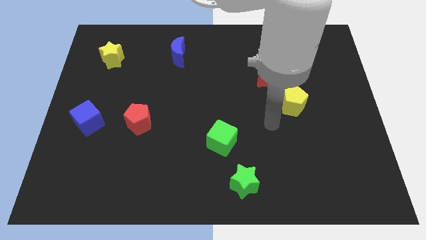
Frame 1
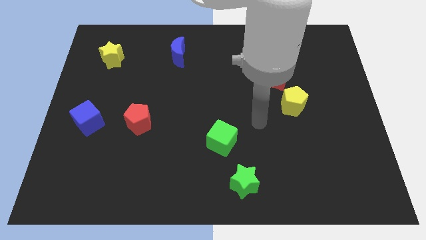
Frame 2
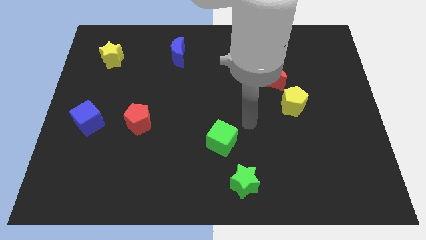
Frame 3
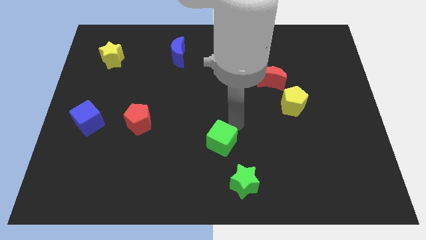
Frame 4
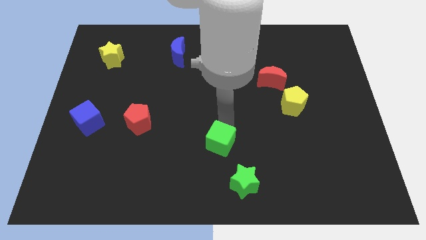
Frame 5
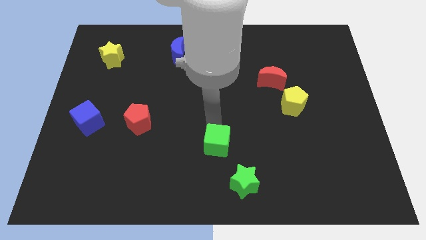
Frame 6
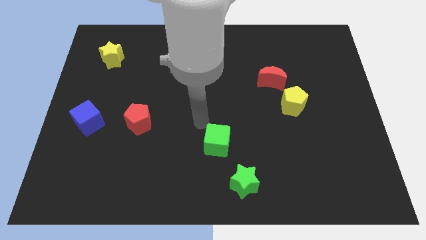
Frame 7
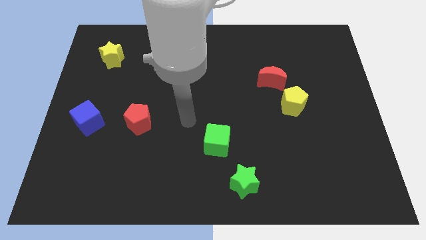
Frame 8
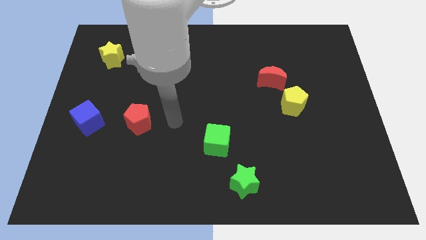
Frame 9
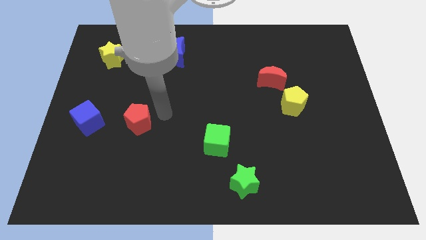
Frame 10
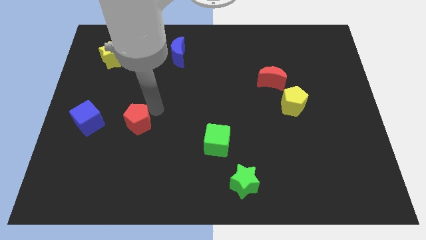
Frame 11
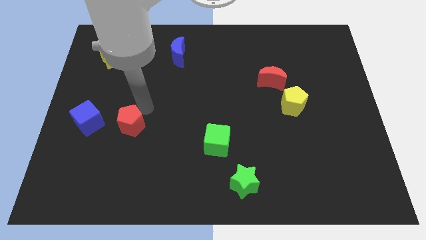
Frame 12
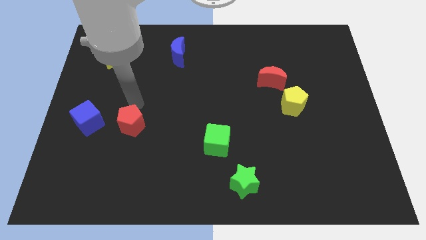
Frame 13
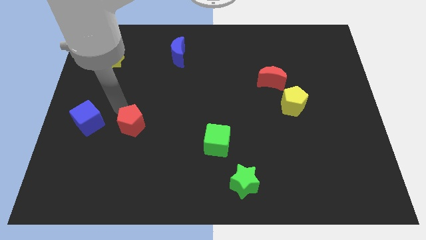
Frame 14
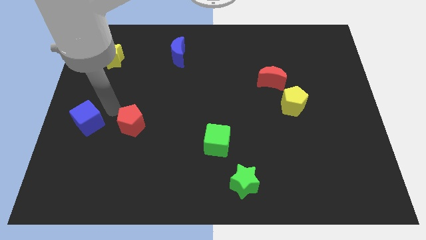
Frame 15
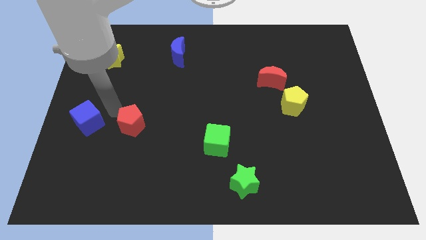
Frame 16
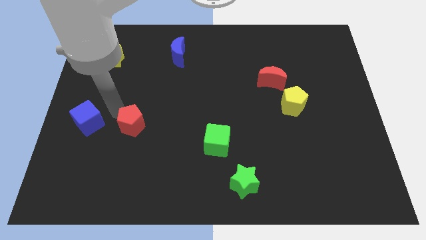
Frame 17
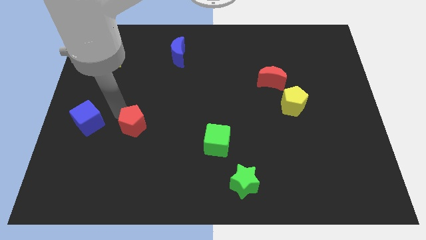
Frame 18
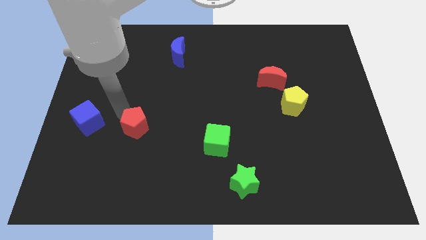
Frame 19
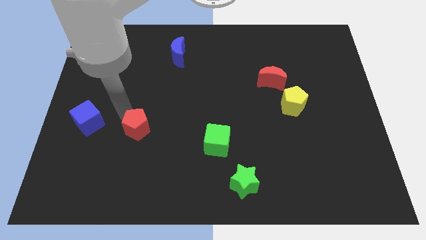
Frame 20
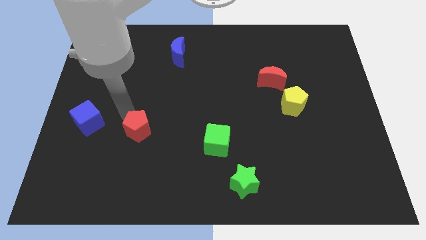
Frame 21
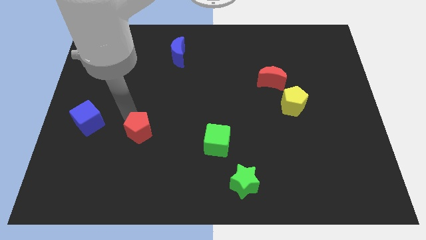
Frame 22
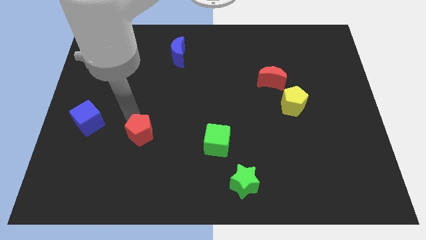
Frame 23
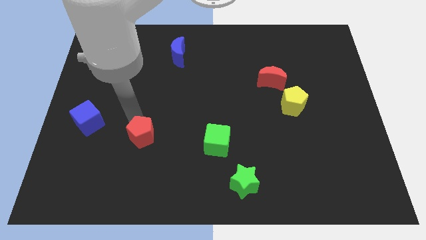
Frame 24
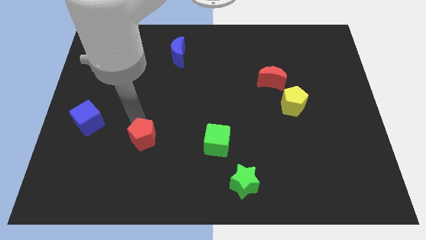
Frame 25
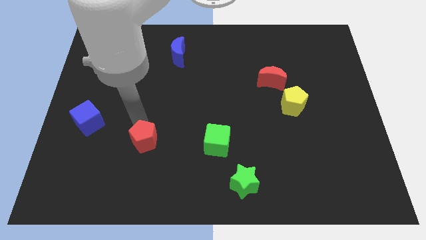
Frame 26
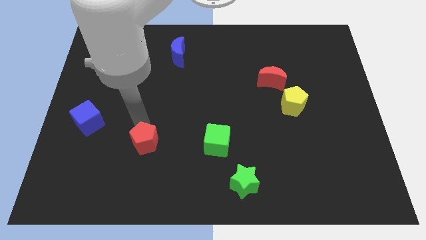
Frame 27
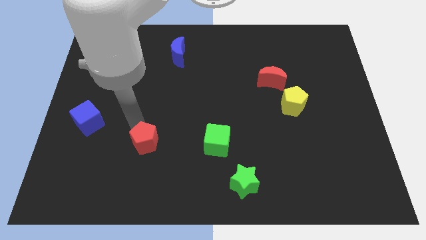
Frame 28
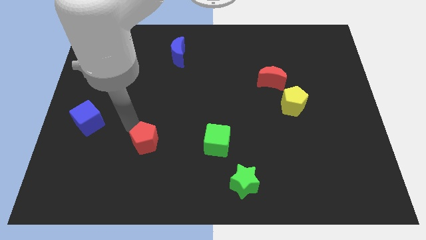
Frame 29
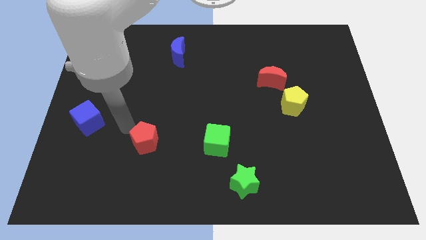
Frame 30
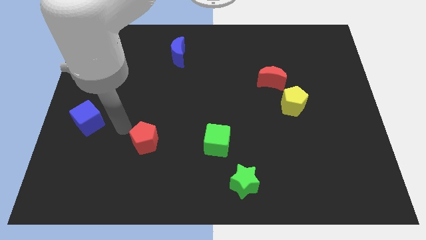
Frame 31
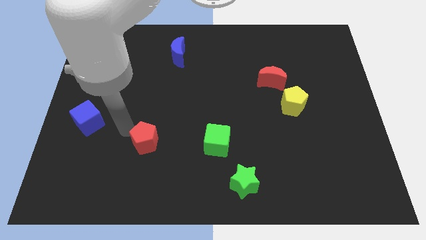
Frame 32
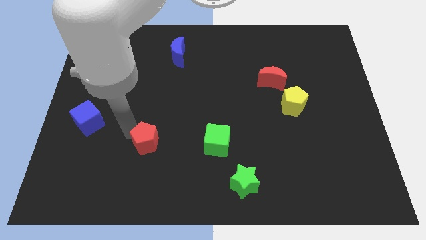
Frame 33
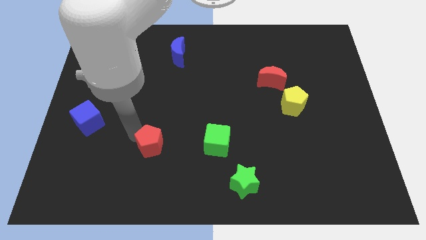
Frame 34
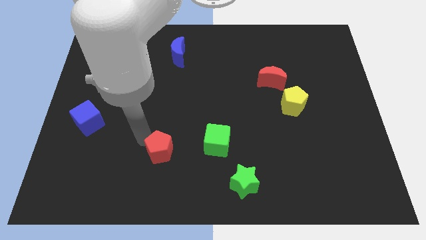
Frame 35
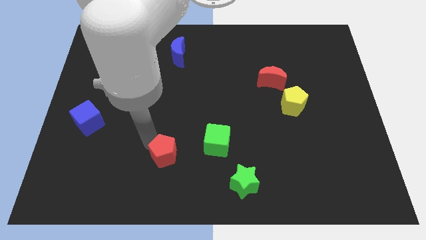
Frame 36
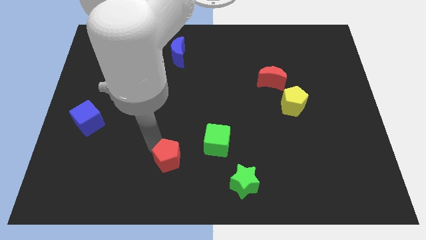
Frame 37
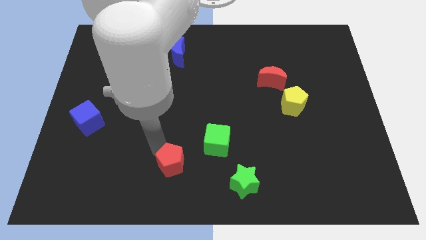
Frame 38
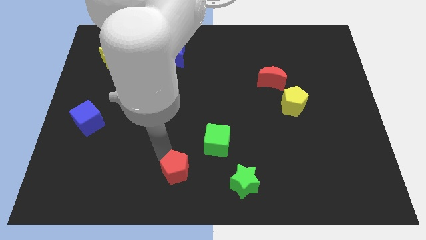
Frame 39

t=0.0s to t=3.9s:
put the red pentagon to the left side of the green star

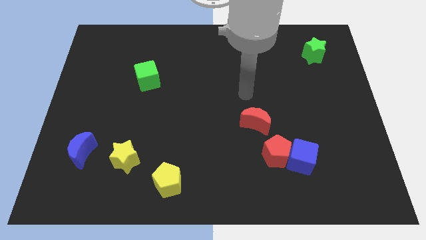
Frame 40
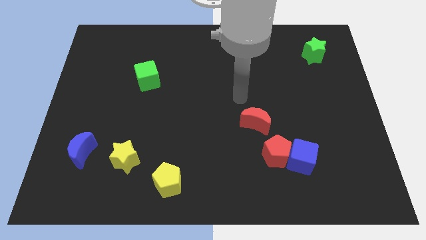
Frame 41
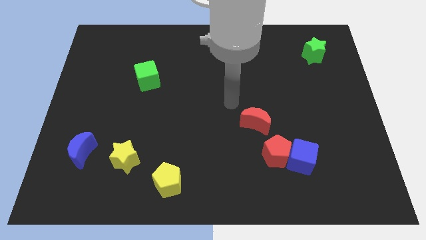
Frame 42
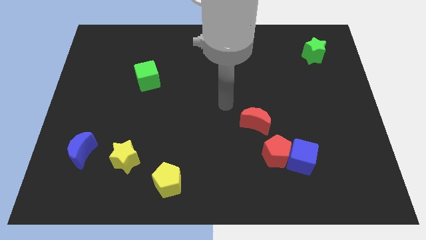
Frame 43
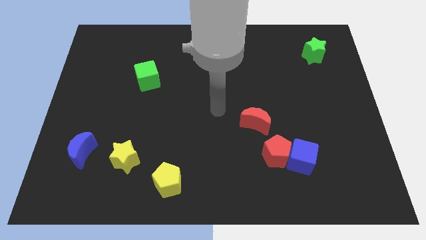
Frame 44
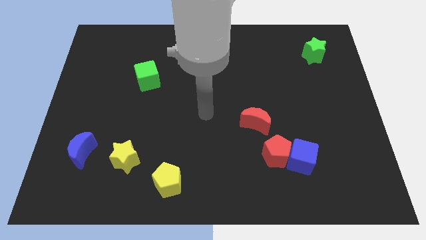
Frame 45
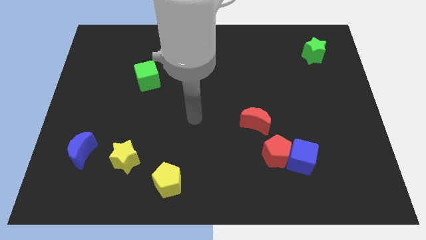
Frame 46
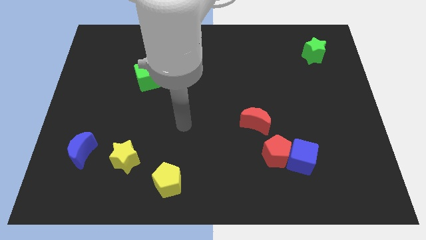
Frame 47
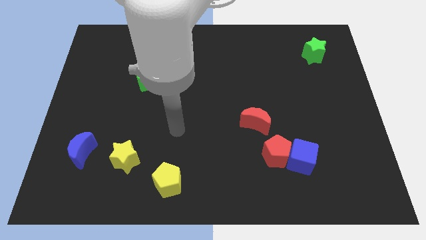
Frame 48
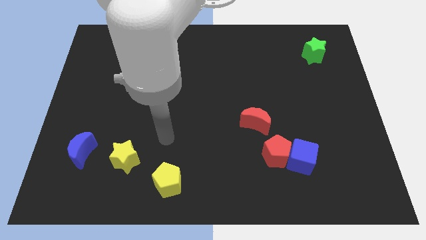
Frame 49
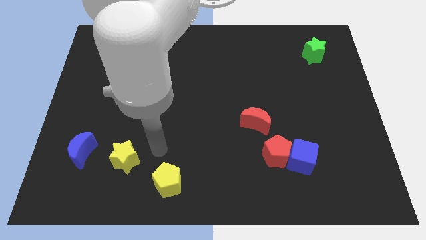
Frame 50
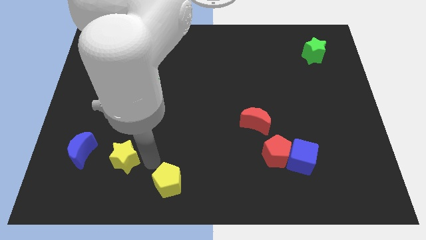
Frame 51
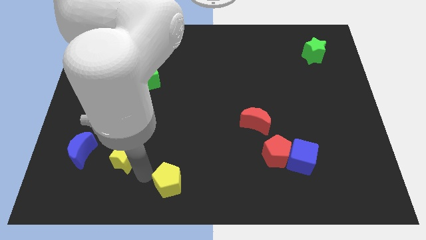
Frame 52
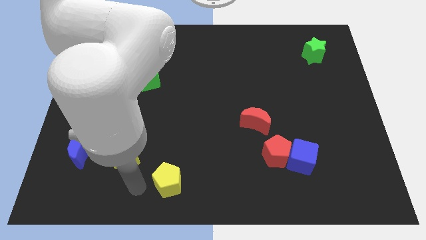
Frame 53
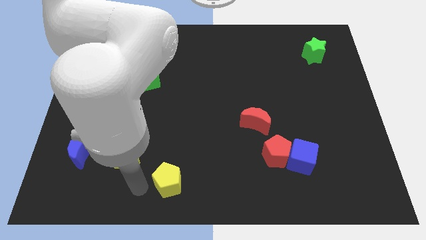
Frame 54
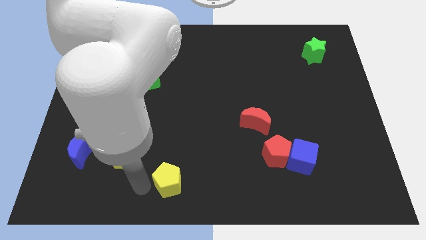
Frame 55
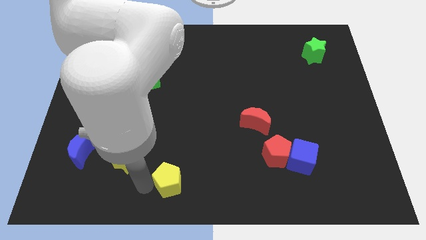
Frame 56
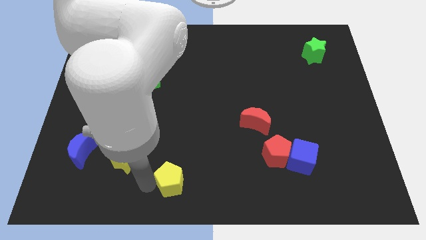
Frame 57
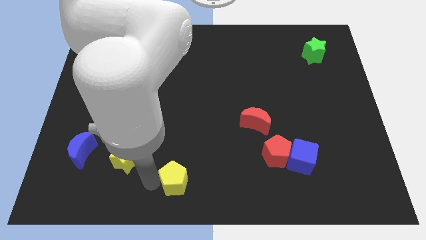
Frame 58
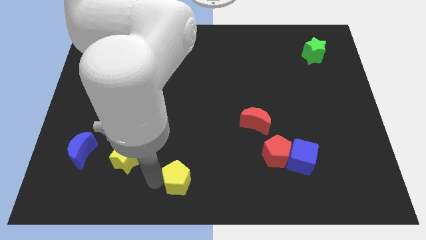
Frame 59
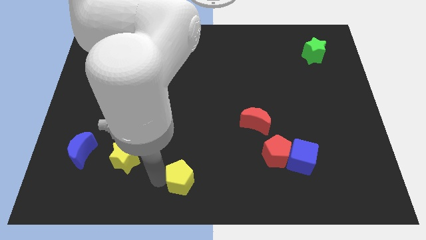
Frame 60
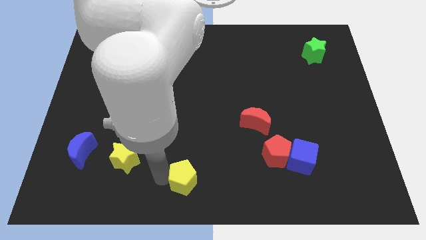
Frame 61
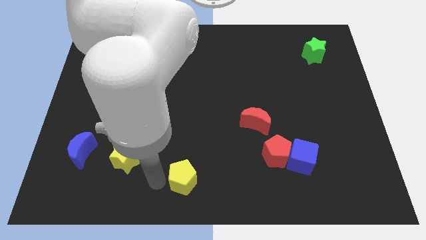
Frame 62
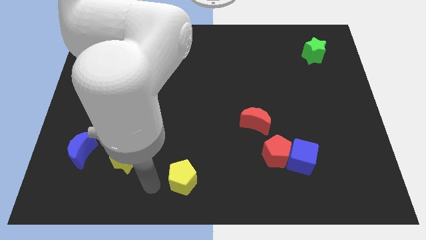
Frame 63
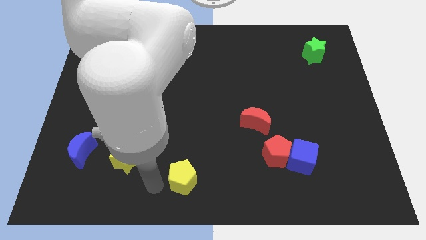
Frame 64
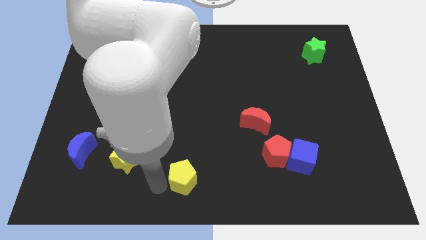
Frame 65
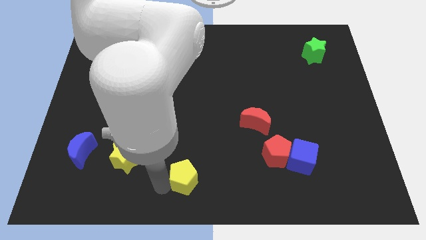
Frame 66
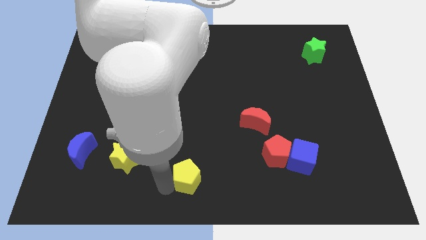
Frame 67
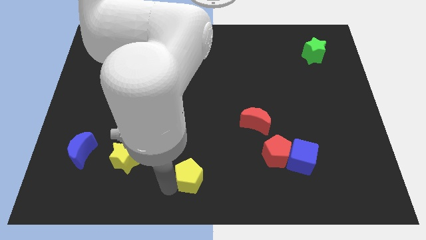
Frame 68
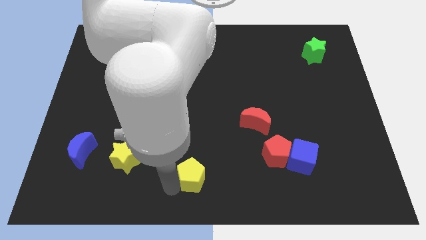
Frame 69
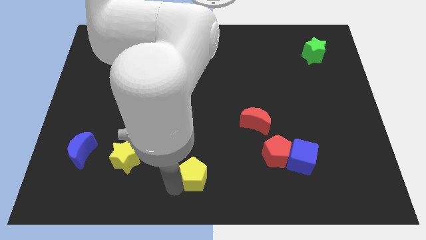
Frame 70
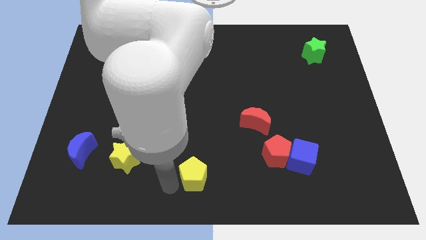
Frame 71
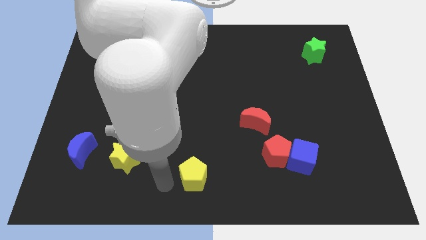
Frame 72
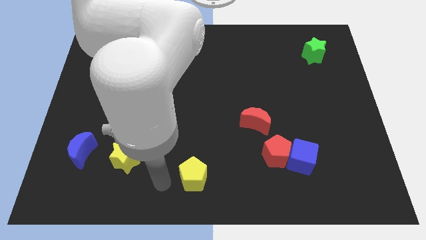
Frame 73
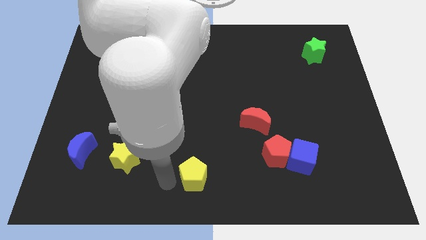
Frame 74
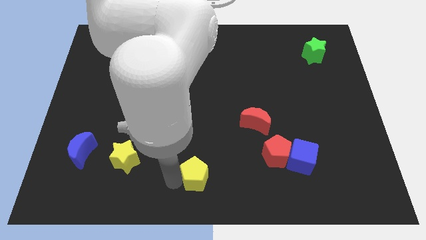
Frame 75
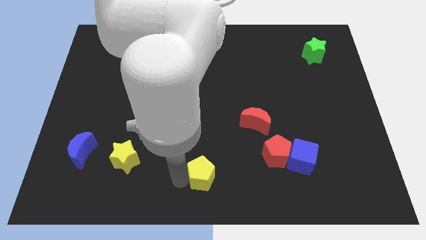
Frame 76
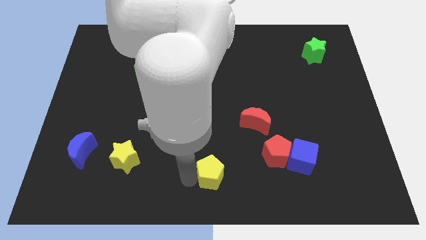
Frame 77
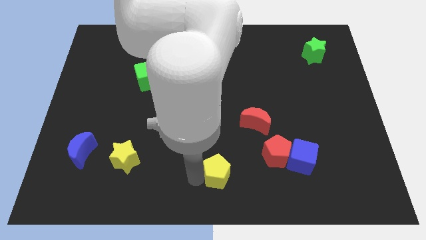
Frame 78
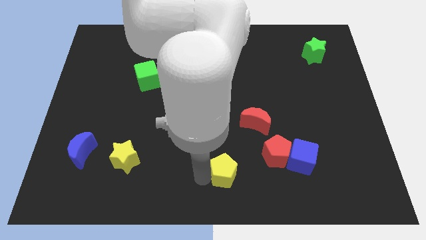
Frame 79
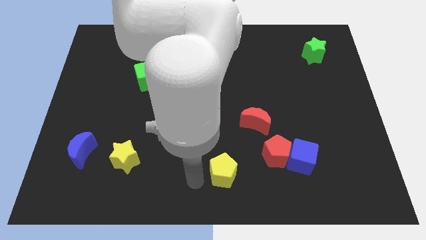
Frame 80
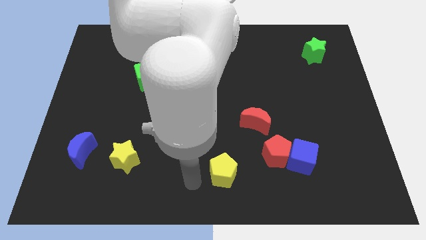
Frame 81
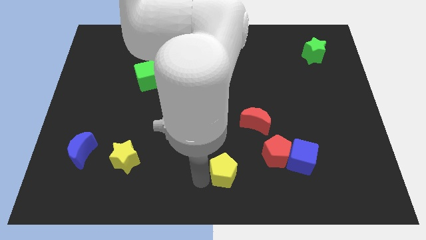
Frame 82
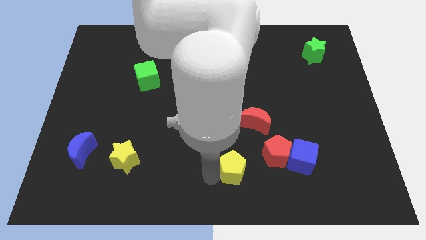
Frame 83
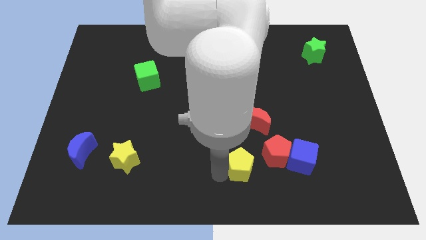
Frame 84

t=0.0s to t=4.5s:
push the yellow pentagon to the bottom side of the red moon
